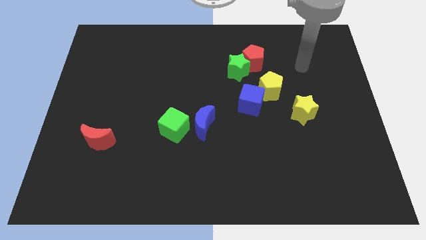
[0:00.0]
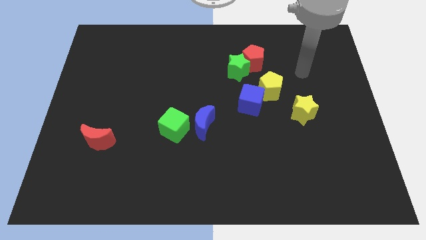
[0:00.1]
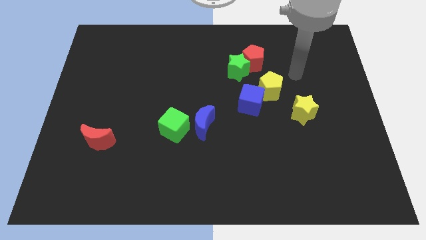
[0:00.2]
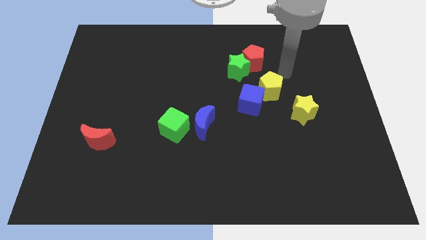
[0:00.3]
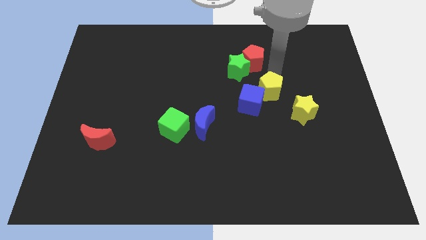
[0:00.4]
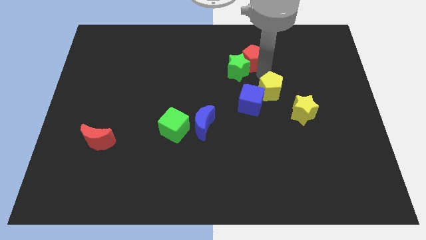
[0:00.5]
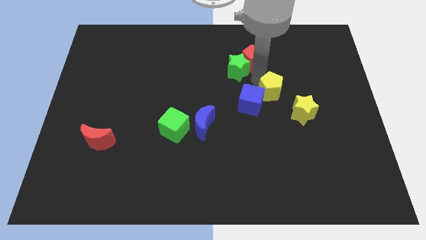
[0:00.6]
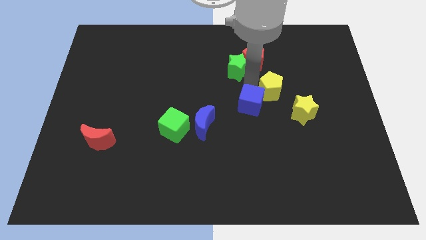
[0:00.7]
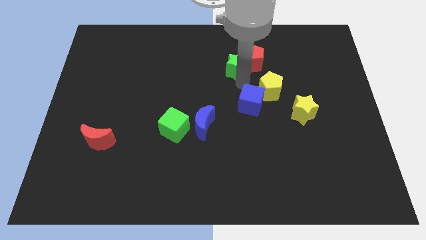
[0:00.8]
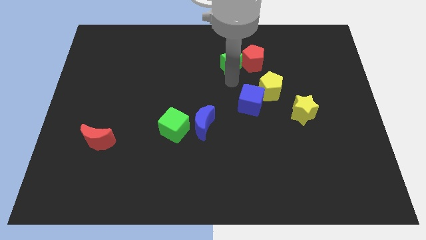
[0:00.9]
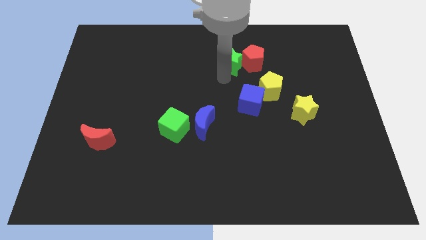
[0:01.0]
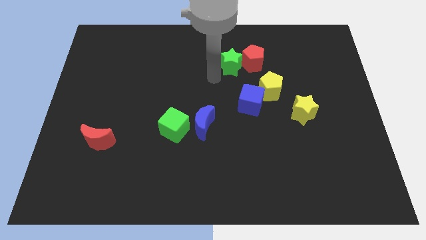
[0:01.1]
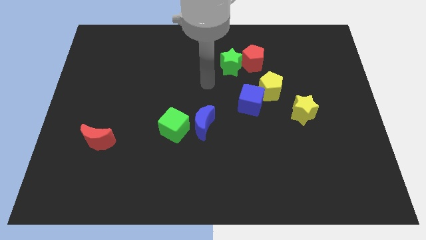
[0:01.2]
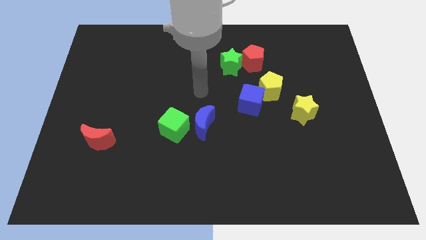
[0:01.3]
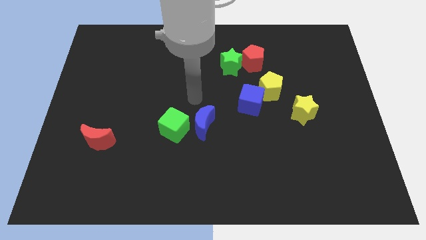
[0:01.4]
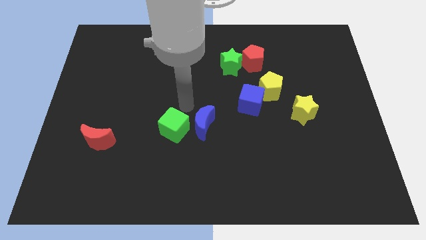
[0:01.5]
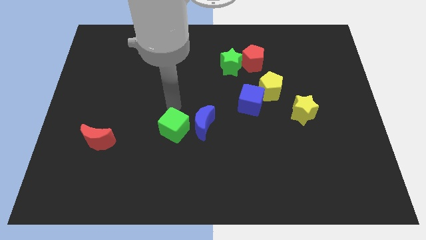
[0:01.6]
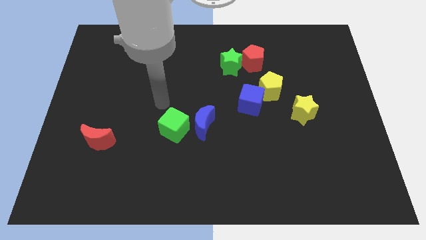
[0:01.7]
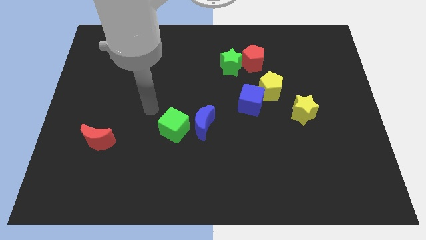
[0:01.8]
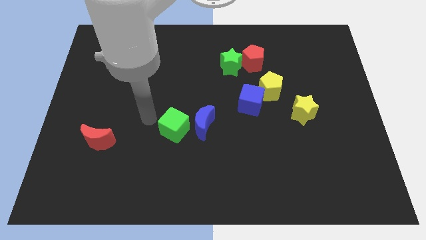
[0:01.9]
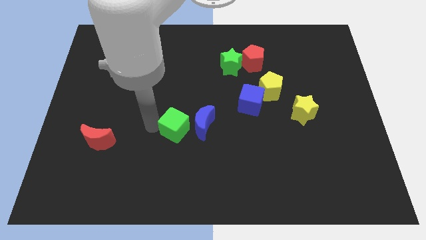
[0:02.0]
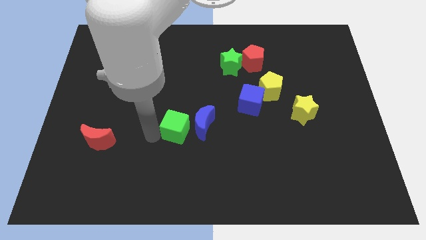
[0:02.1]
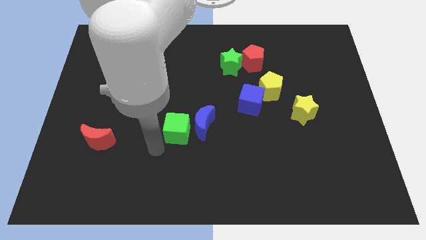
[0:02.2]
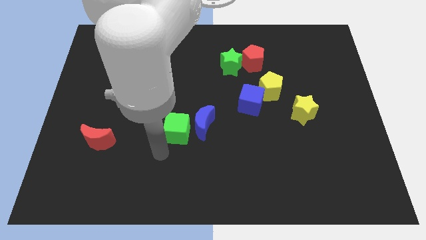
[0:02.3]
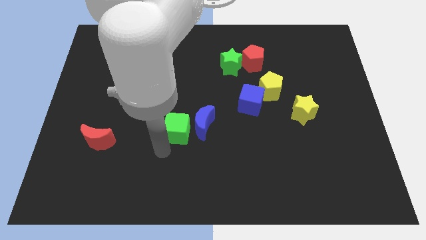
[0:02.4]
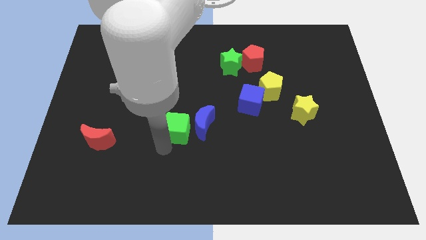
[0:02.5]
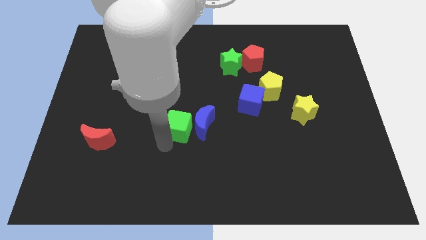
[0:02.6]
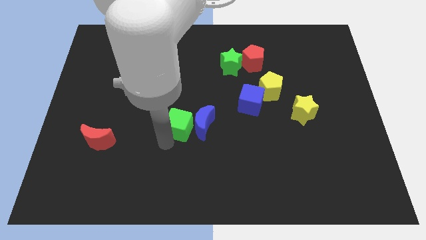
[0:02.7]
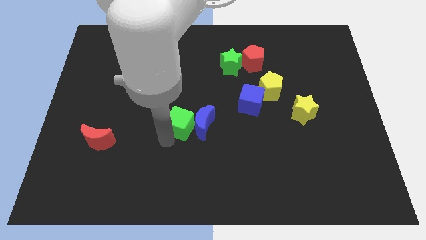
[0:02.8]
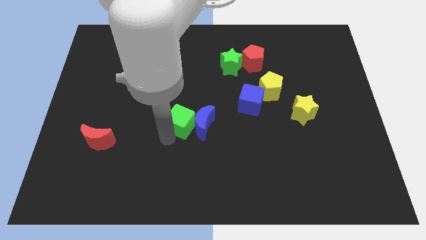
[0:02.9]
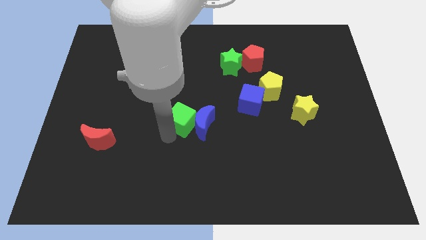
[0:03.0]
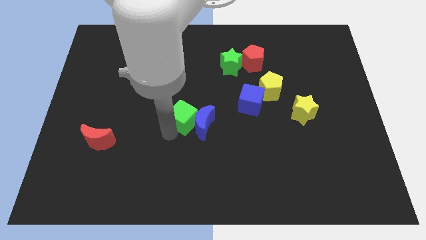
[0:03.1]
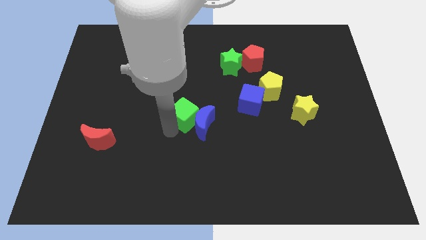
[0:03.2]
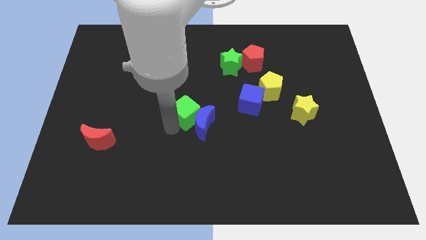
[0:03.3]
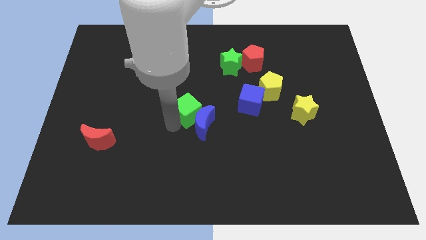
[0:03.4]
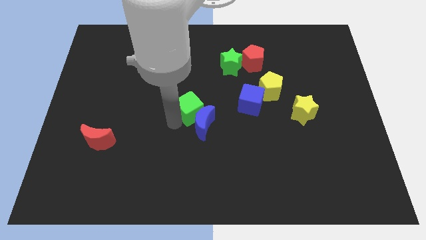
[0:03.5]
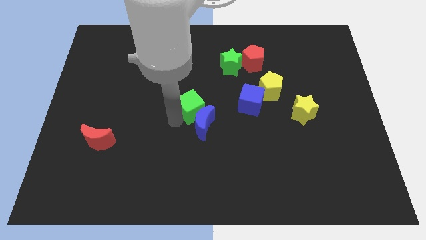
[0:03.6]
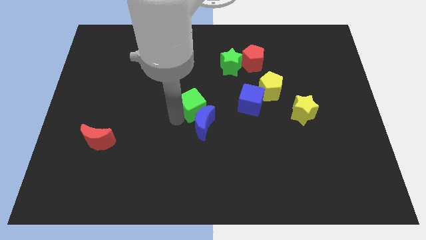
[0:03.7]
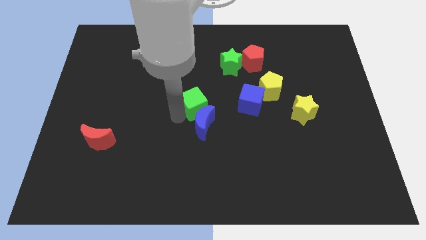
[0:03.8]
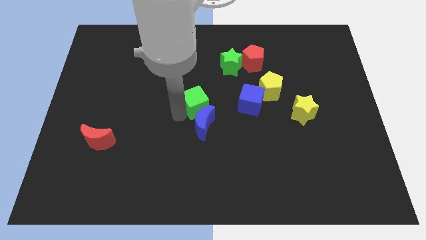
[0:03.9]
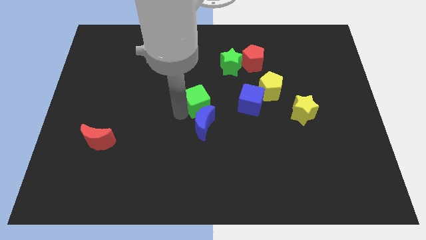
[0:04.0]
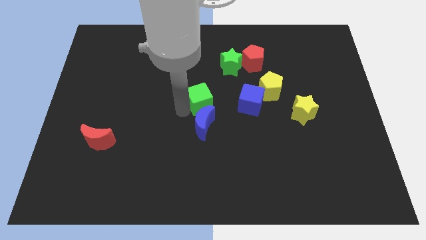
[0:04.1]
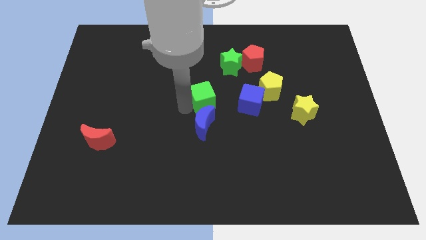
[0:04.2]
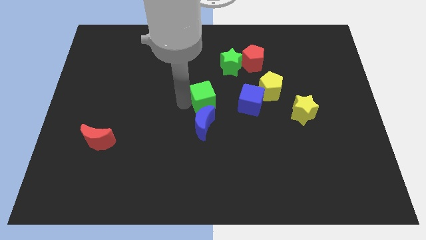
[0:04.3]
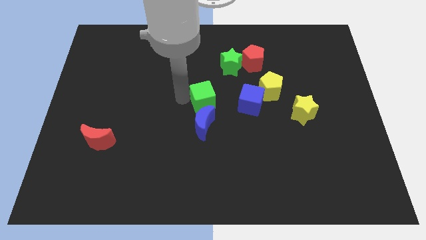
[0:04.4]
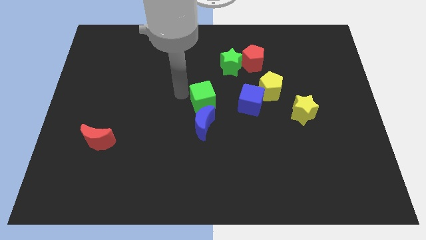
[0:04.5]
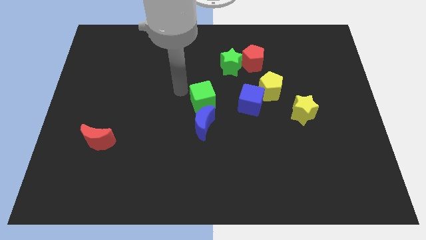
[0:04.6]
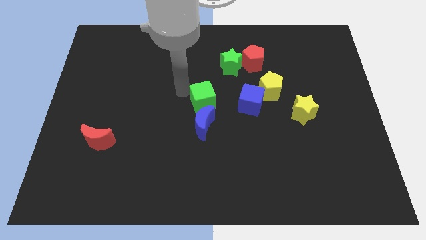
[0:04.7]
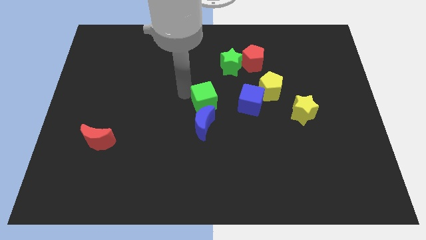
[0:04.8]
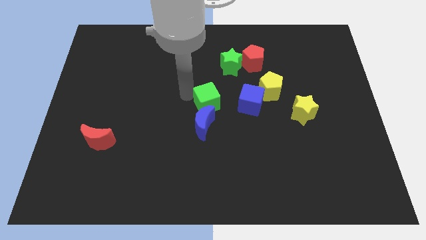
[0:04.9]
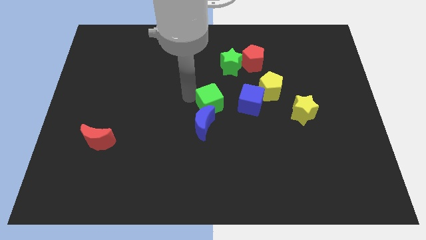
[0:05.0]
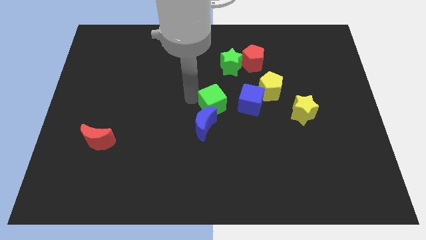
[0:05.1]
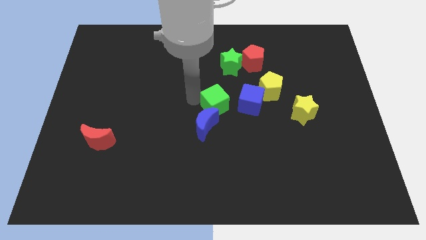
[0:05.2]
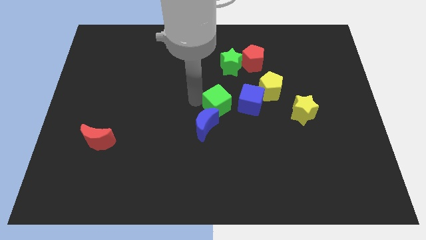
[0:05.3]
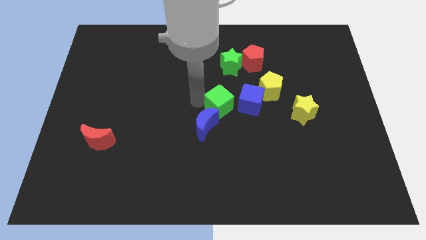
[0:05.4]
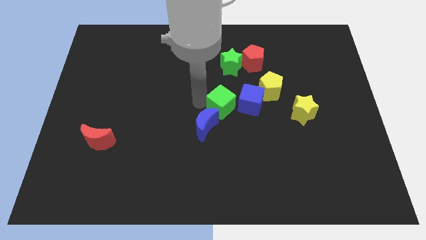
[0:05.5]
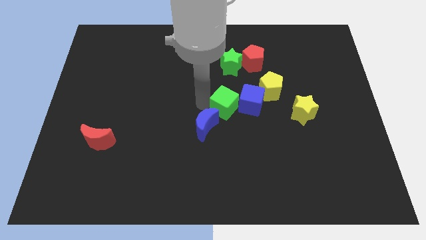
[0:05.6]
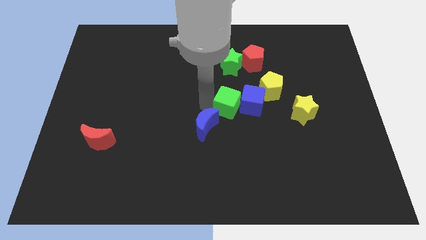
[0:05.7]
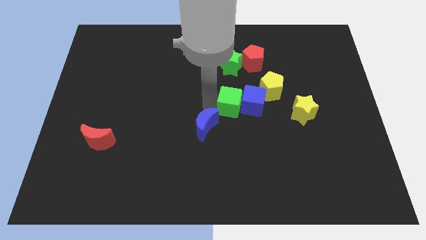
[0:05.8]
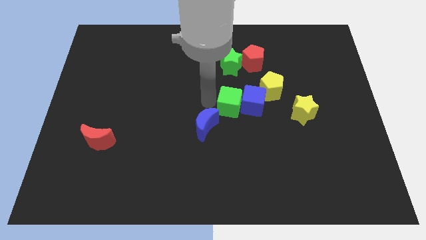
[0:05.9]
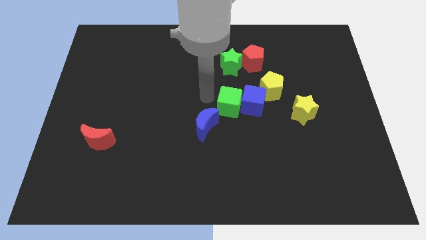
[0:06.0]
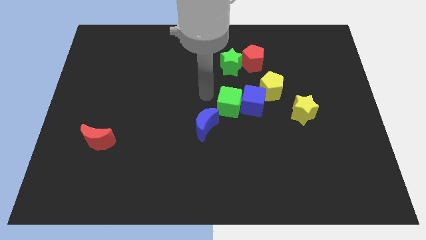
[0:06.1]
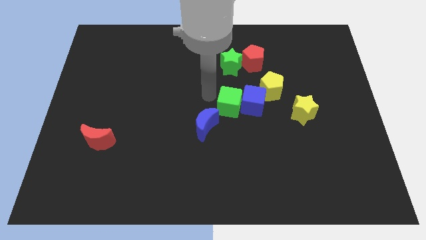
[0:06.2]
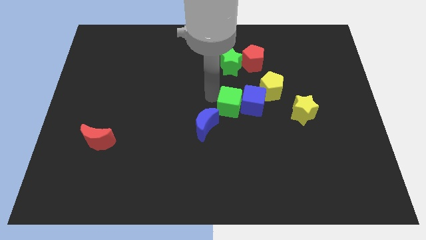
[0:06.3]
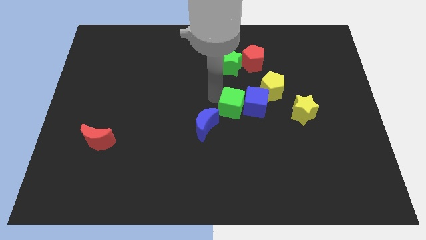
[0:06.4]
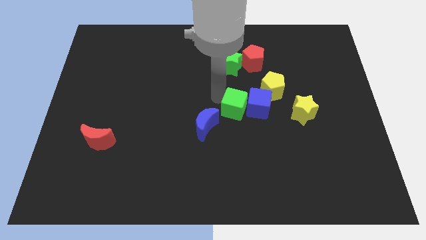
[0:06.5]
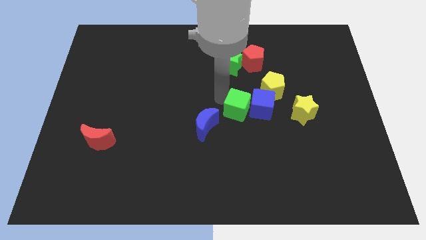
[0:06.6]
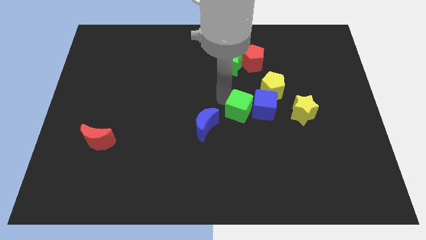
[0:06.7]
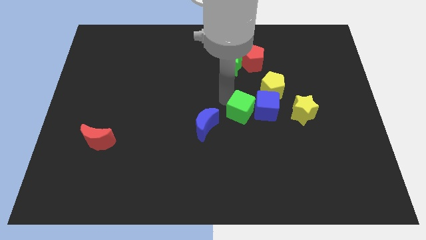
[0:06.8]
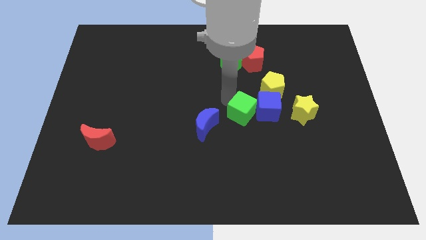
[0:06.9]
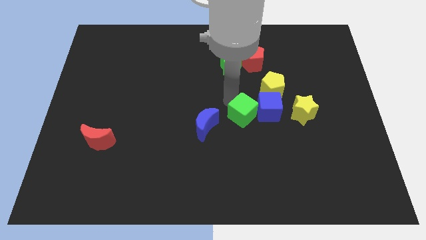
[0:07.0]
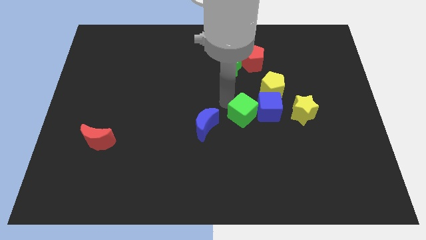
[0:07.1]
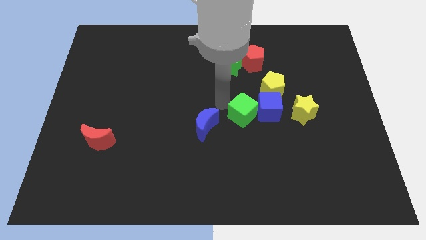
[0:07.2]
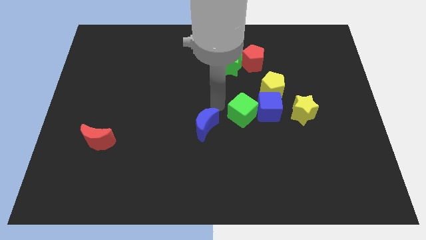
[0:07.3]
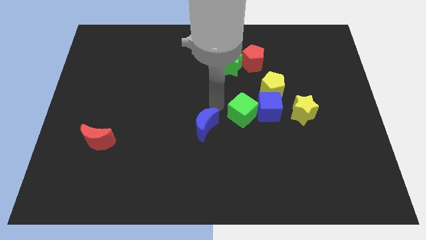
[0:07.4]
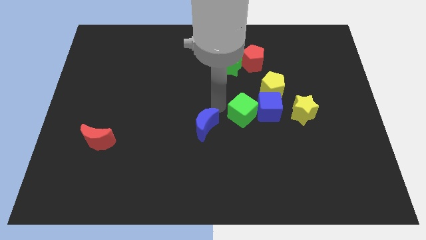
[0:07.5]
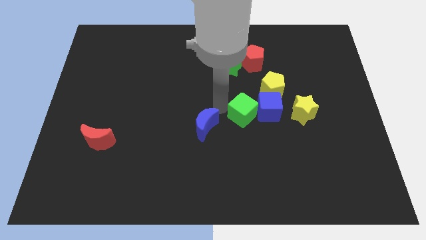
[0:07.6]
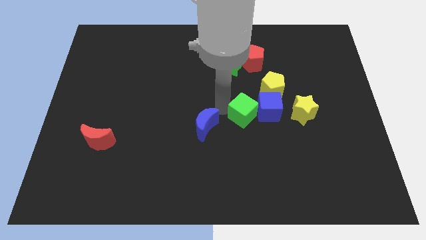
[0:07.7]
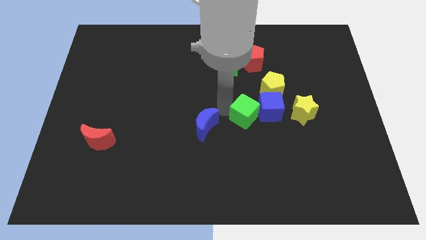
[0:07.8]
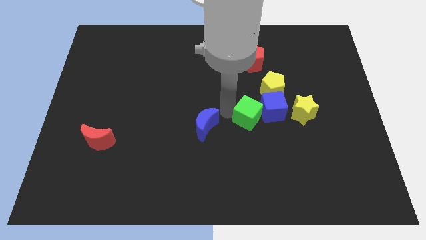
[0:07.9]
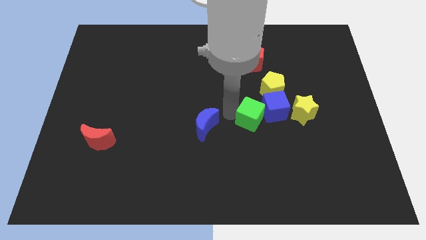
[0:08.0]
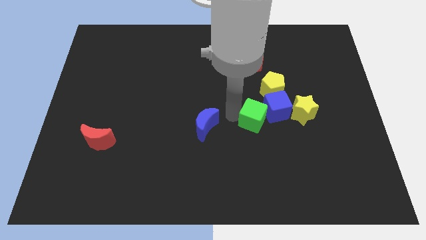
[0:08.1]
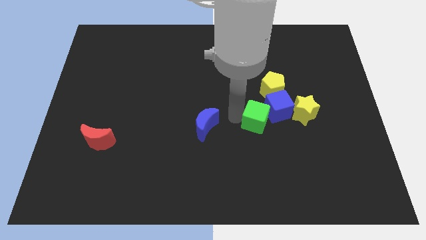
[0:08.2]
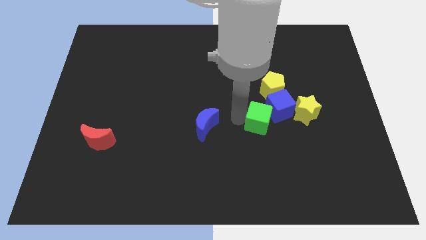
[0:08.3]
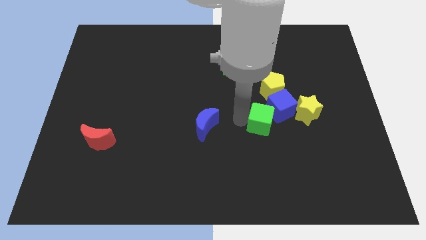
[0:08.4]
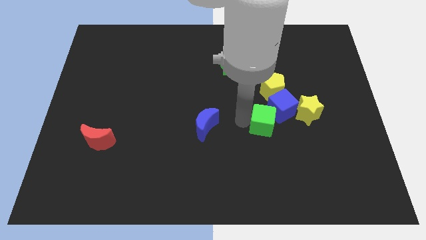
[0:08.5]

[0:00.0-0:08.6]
slide the green cube right
